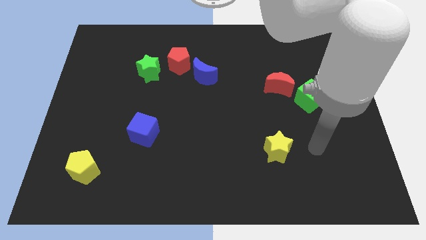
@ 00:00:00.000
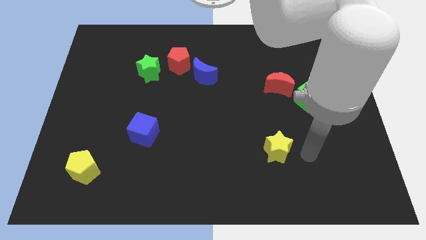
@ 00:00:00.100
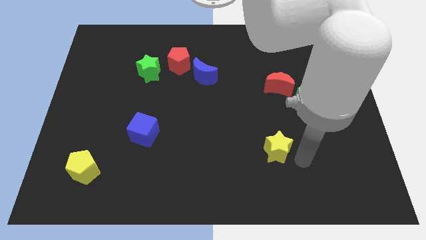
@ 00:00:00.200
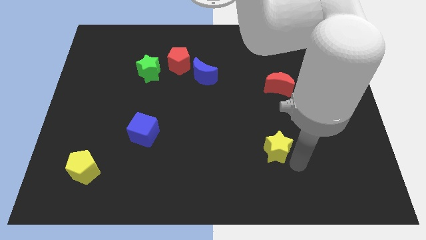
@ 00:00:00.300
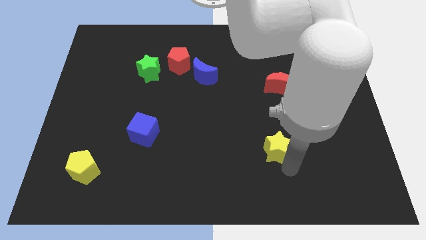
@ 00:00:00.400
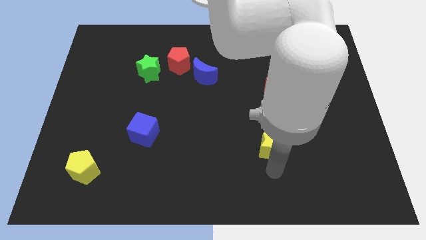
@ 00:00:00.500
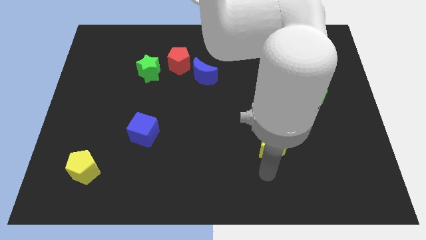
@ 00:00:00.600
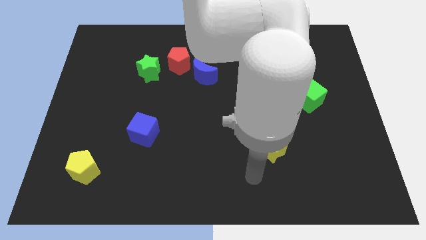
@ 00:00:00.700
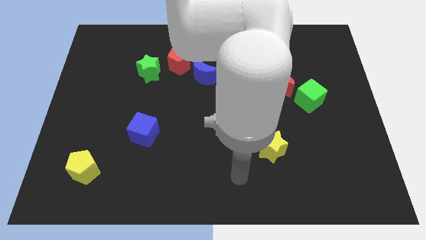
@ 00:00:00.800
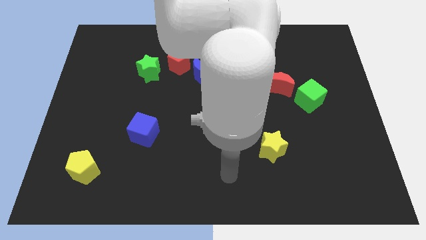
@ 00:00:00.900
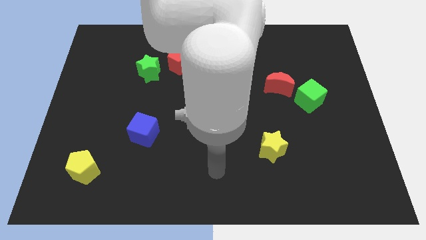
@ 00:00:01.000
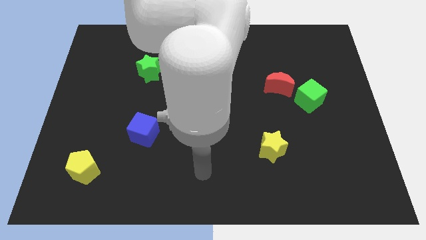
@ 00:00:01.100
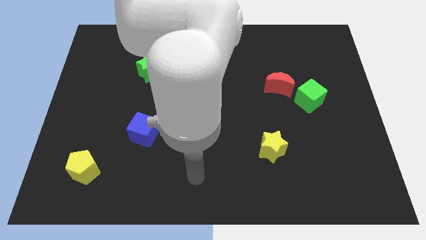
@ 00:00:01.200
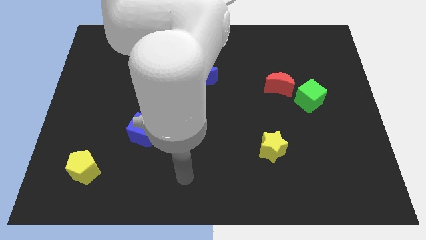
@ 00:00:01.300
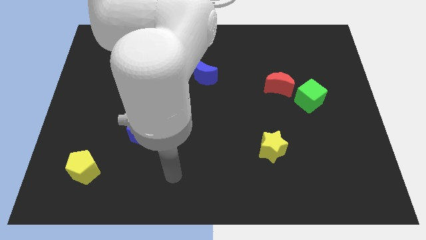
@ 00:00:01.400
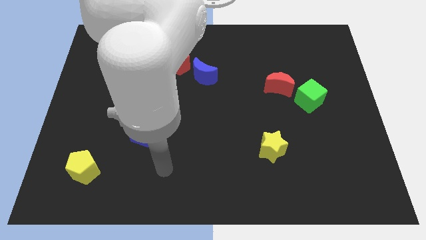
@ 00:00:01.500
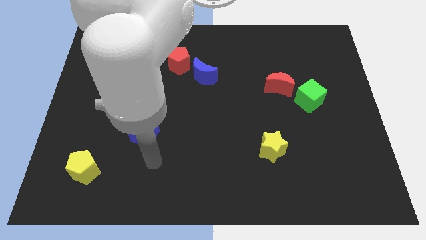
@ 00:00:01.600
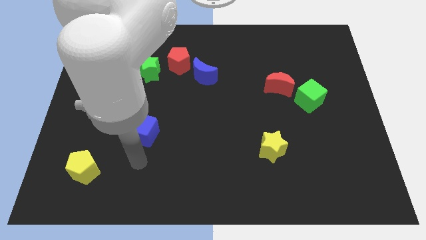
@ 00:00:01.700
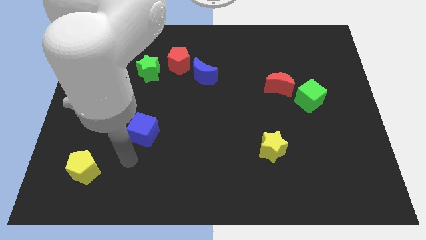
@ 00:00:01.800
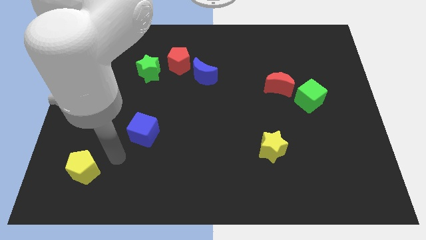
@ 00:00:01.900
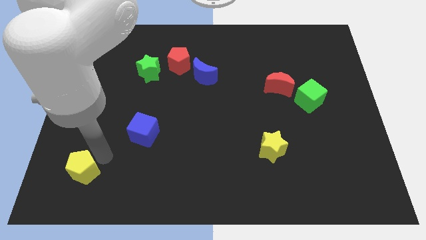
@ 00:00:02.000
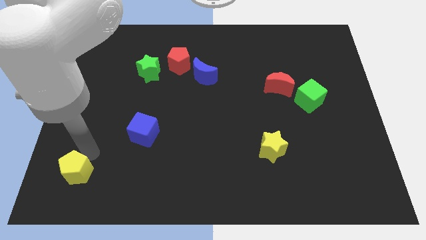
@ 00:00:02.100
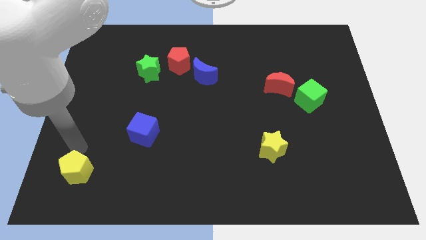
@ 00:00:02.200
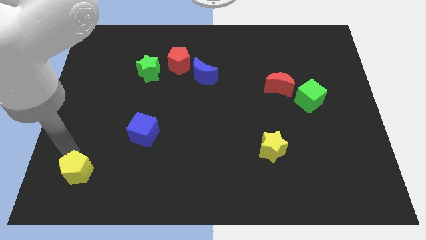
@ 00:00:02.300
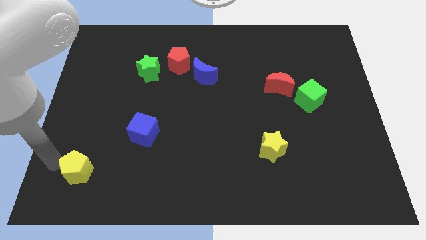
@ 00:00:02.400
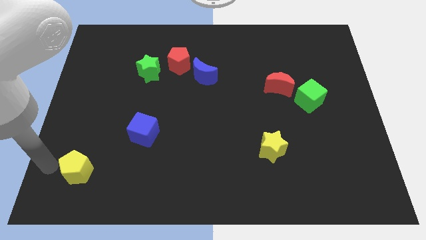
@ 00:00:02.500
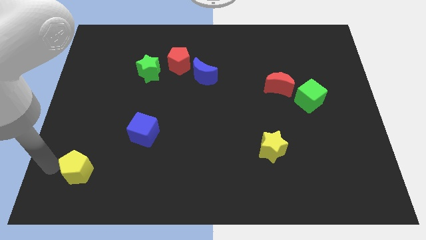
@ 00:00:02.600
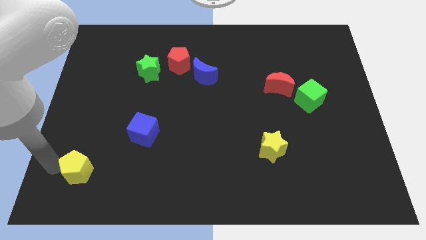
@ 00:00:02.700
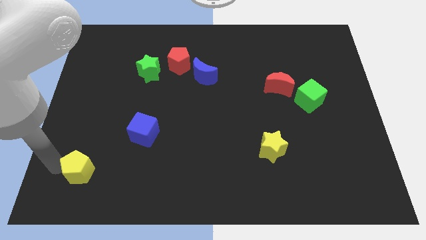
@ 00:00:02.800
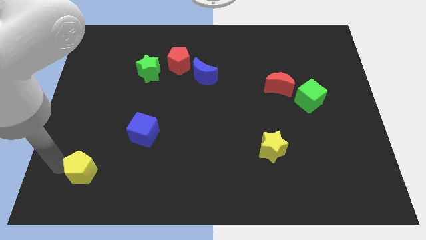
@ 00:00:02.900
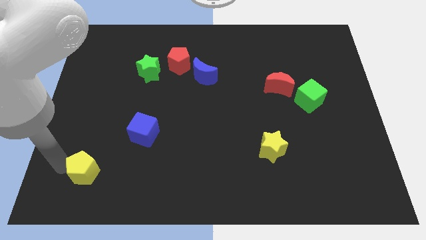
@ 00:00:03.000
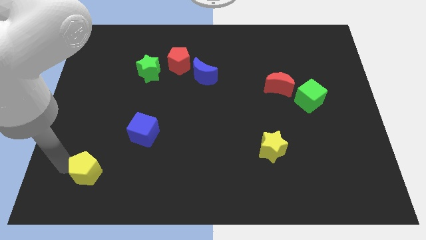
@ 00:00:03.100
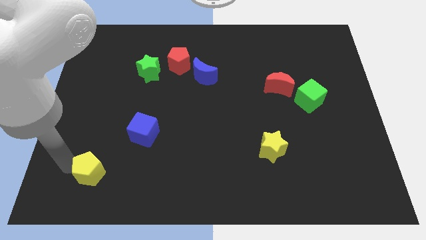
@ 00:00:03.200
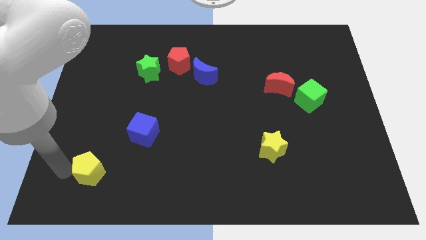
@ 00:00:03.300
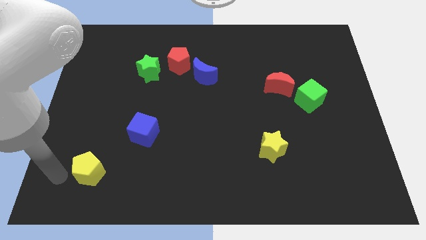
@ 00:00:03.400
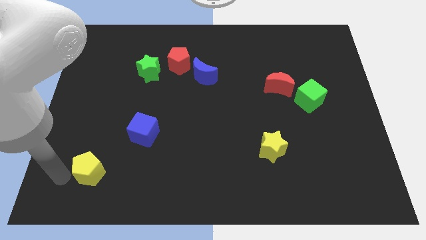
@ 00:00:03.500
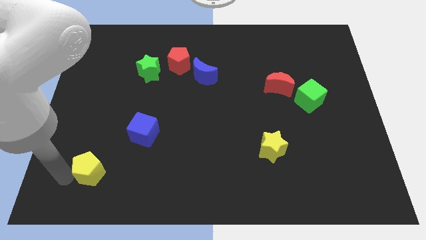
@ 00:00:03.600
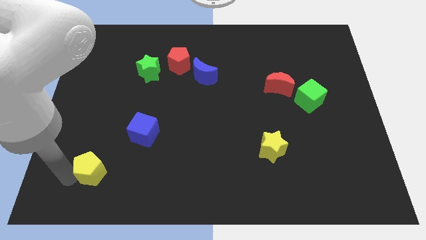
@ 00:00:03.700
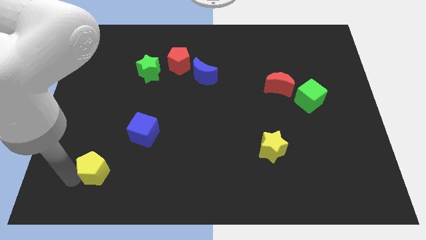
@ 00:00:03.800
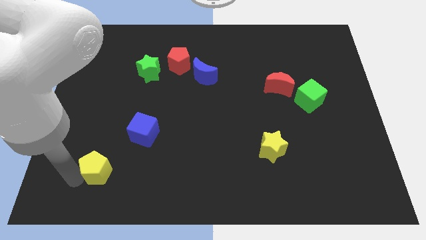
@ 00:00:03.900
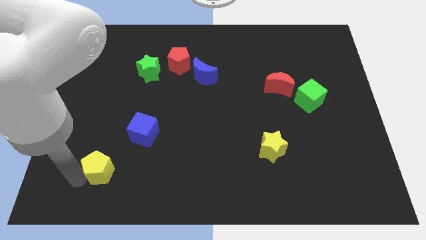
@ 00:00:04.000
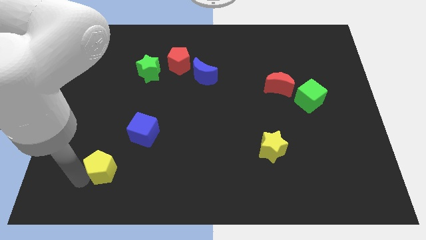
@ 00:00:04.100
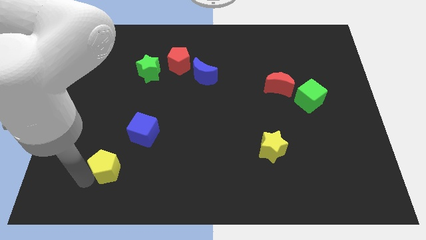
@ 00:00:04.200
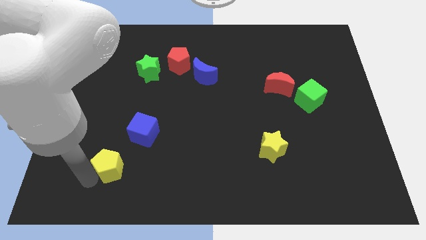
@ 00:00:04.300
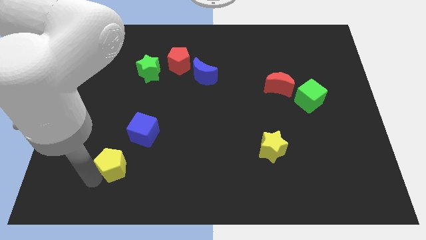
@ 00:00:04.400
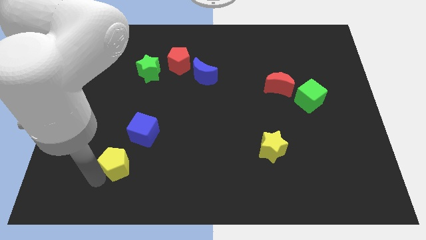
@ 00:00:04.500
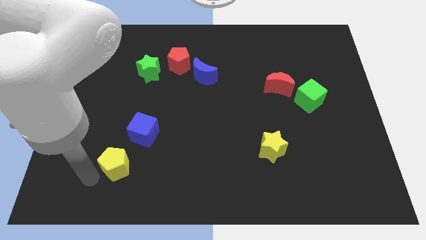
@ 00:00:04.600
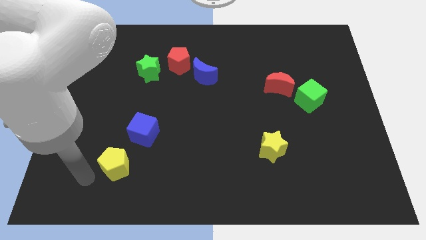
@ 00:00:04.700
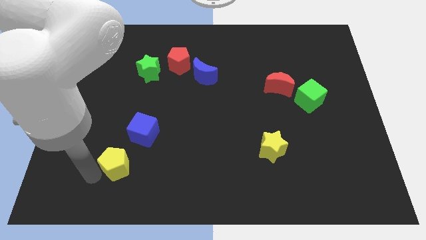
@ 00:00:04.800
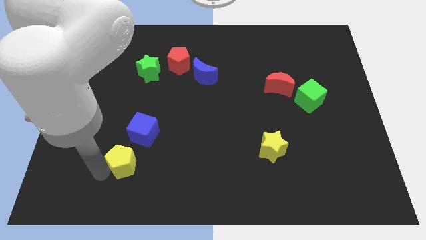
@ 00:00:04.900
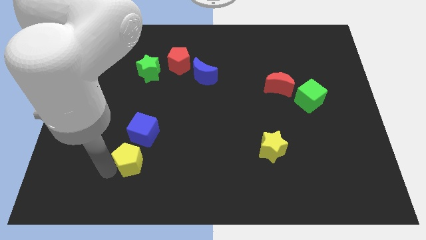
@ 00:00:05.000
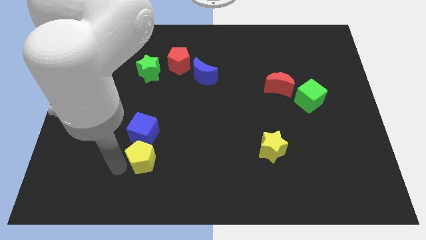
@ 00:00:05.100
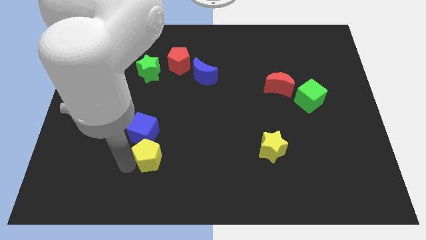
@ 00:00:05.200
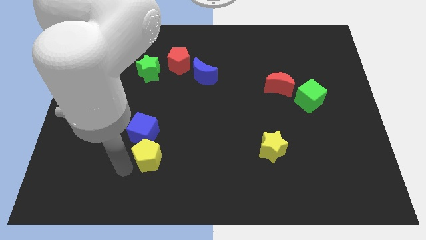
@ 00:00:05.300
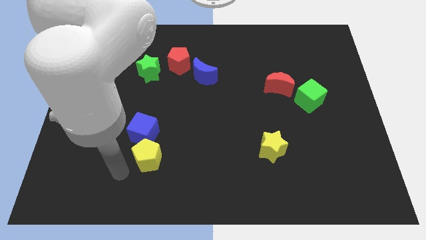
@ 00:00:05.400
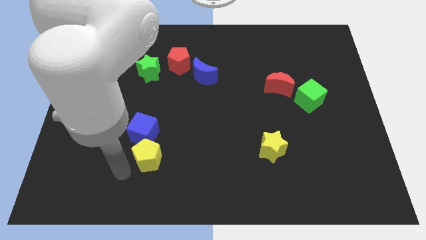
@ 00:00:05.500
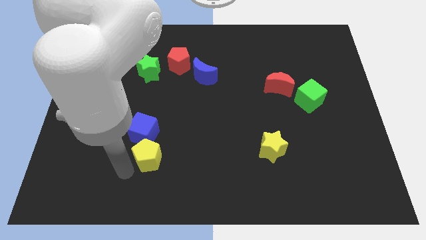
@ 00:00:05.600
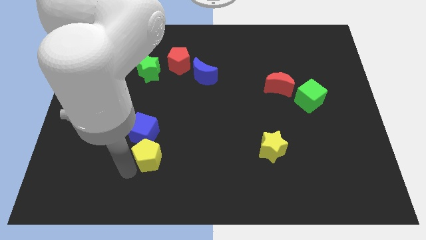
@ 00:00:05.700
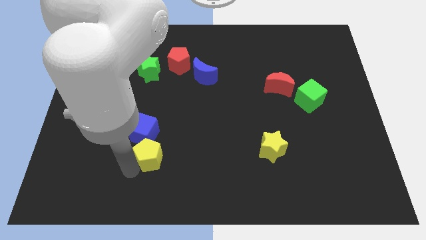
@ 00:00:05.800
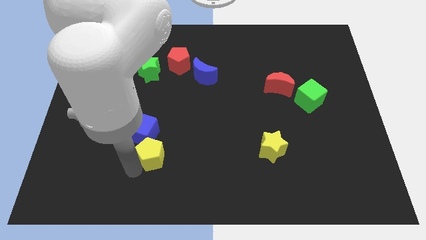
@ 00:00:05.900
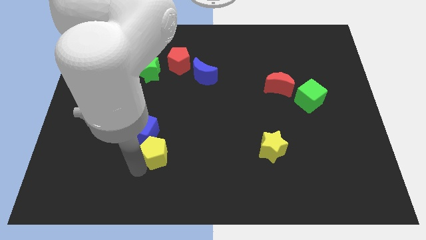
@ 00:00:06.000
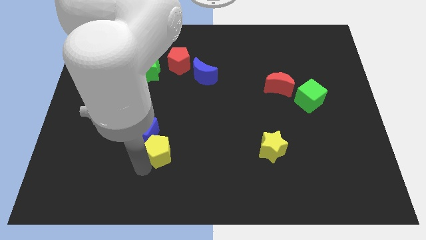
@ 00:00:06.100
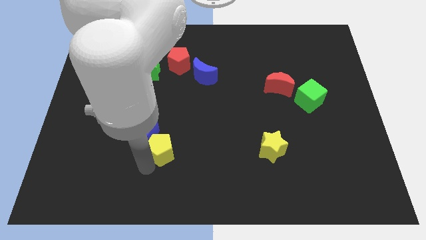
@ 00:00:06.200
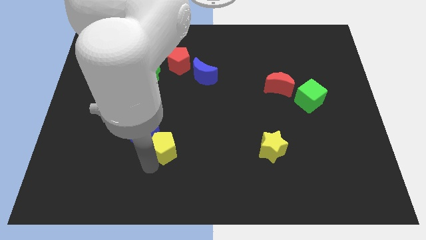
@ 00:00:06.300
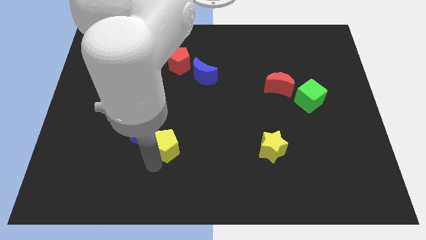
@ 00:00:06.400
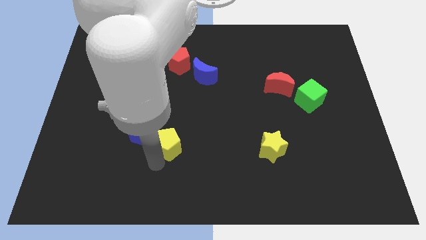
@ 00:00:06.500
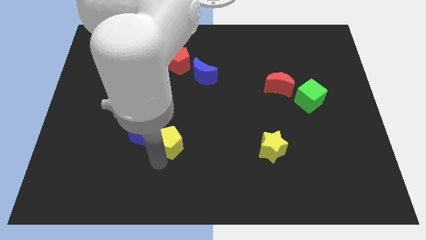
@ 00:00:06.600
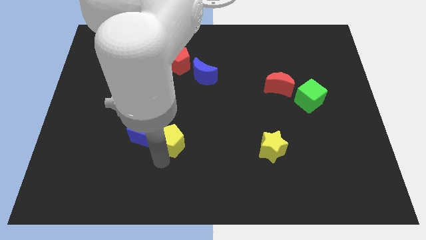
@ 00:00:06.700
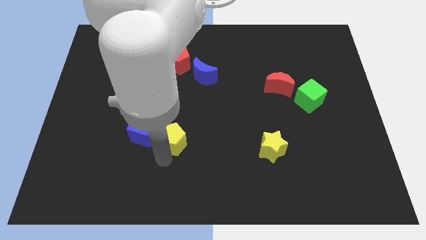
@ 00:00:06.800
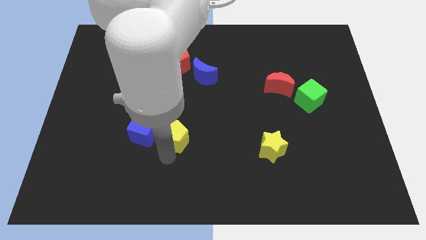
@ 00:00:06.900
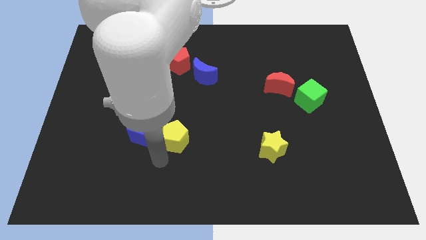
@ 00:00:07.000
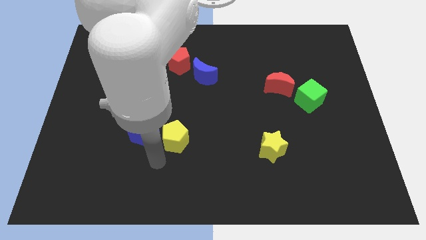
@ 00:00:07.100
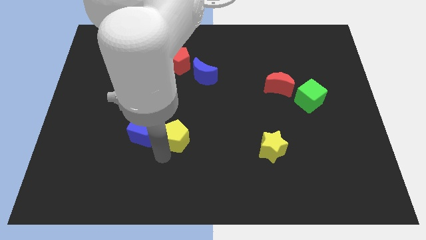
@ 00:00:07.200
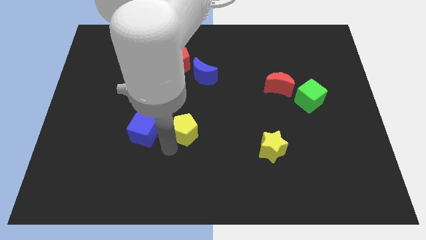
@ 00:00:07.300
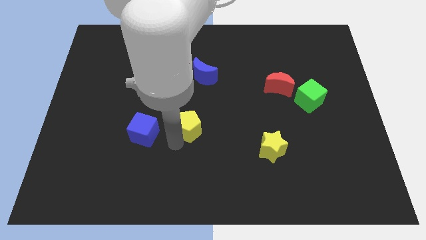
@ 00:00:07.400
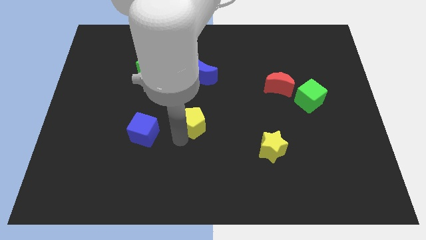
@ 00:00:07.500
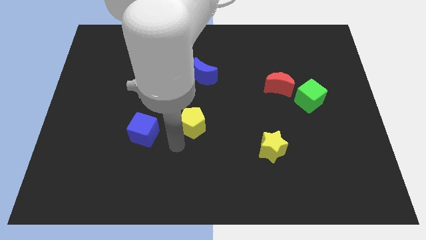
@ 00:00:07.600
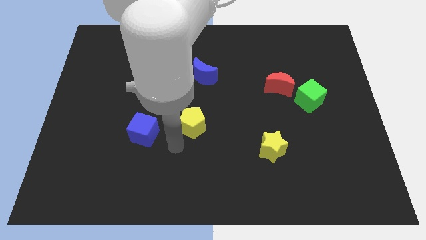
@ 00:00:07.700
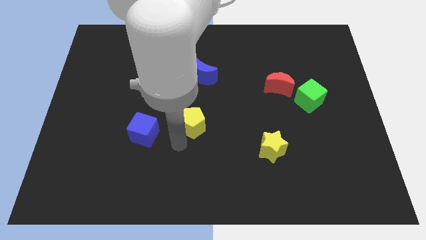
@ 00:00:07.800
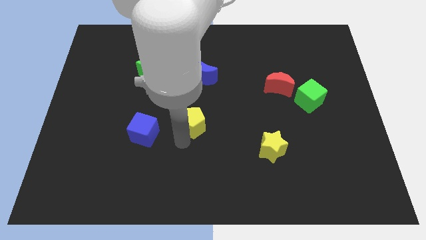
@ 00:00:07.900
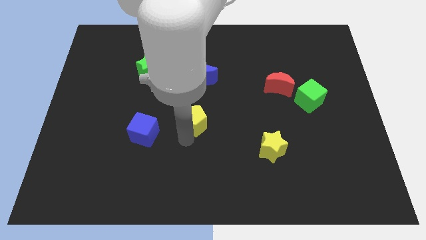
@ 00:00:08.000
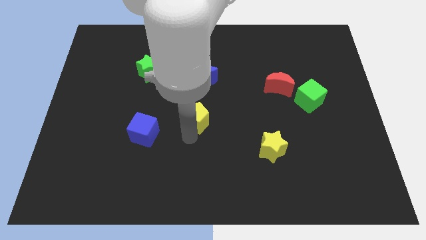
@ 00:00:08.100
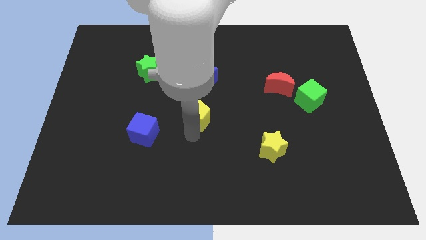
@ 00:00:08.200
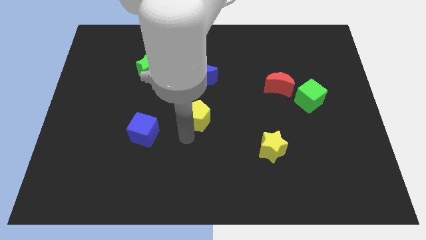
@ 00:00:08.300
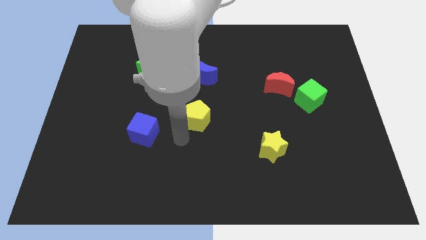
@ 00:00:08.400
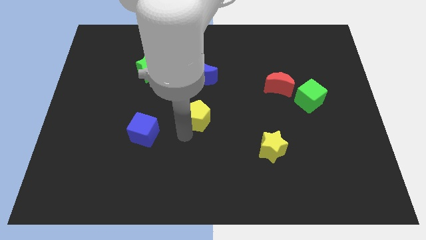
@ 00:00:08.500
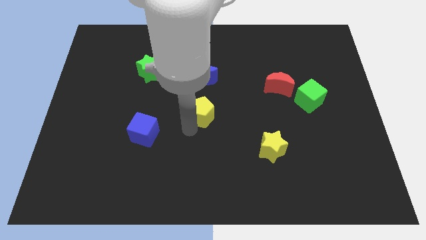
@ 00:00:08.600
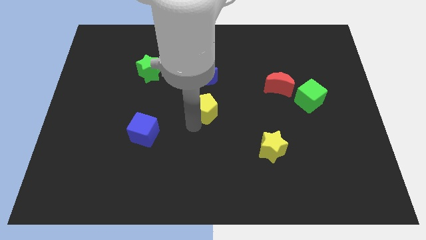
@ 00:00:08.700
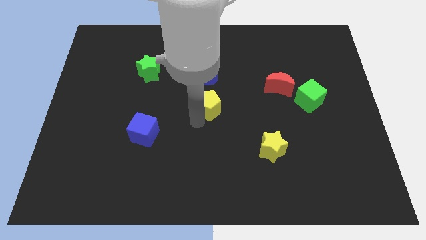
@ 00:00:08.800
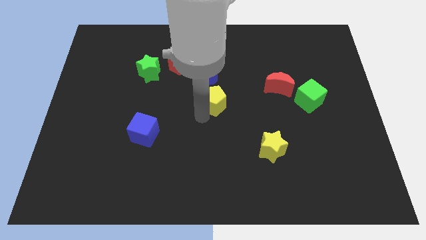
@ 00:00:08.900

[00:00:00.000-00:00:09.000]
move the yellow pentagon to the bottom right of the blue moon
